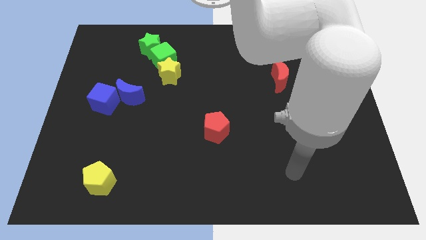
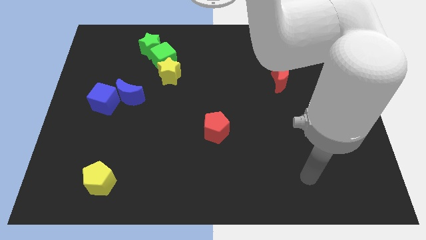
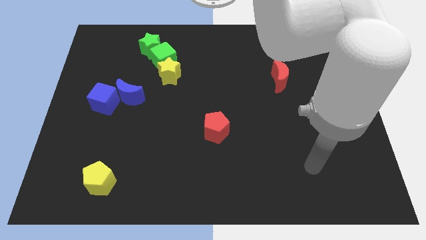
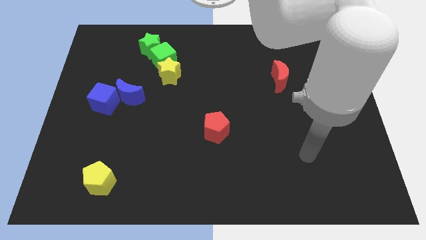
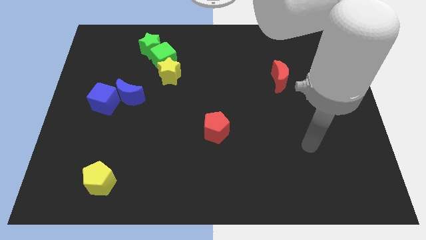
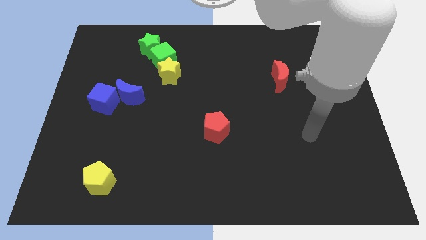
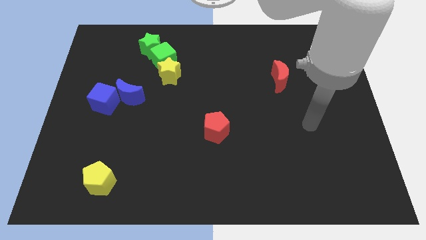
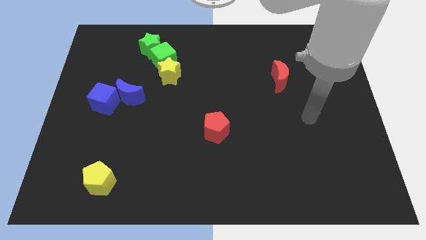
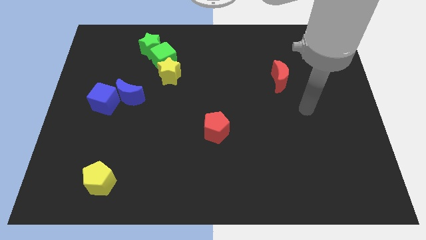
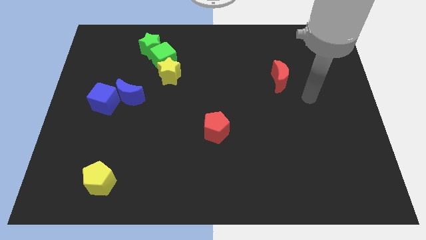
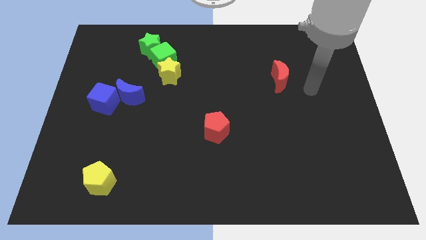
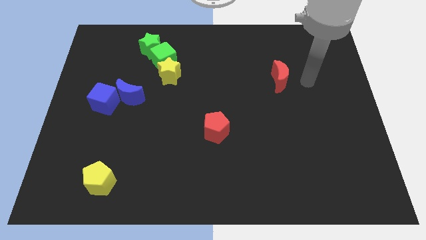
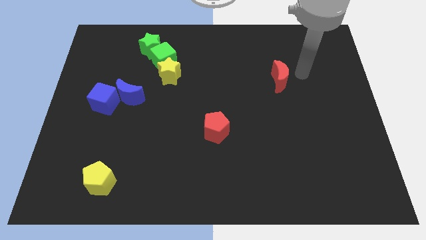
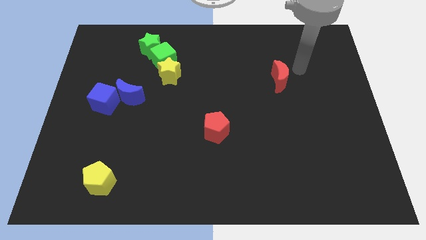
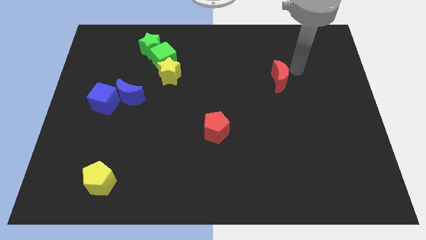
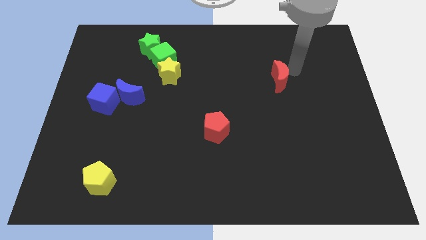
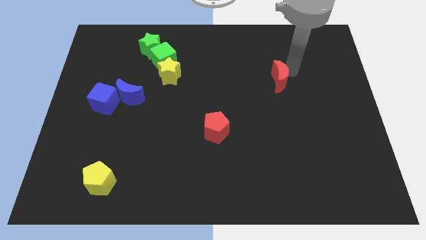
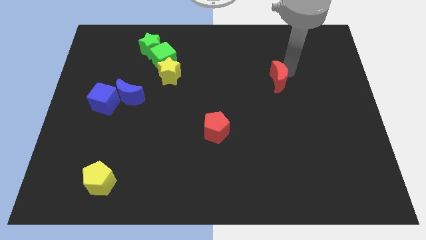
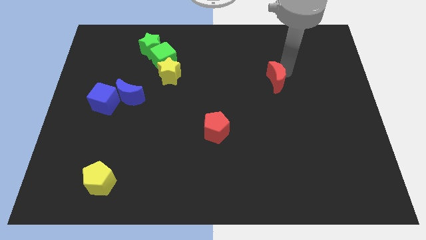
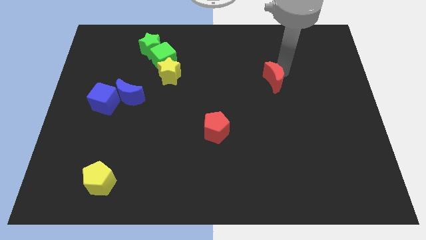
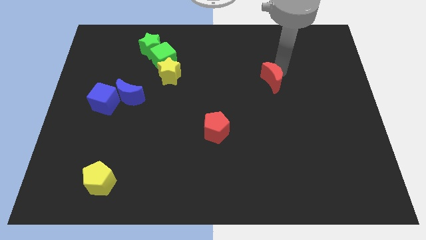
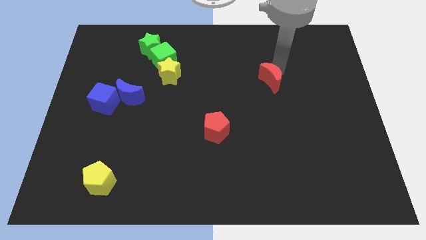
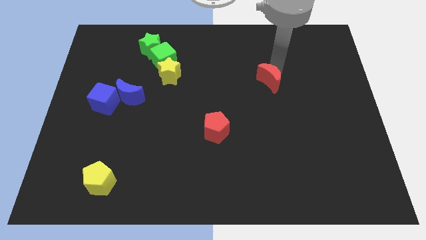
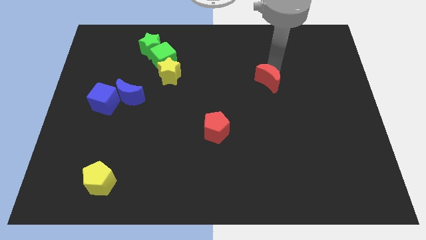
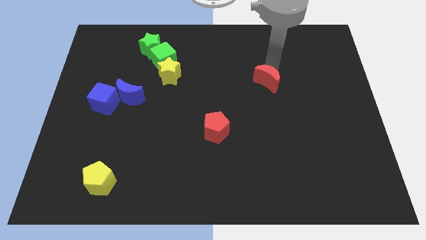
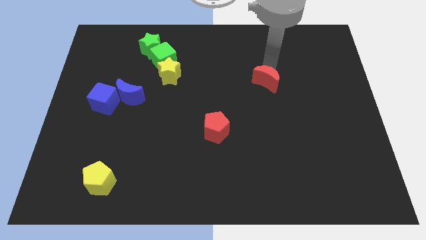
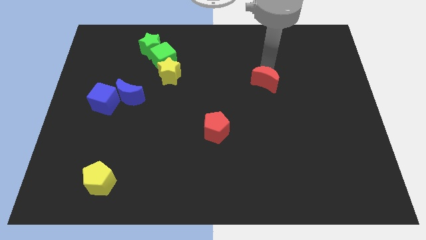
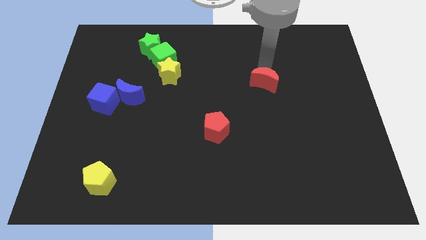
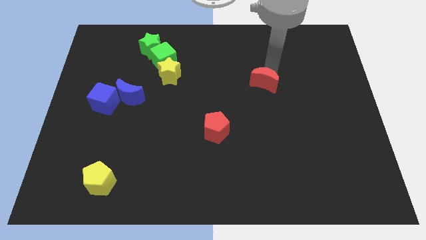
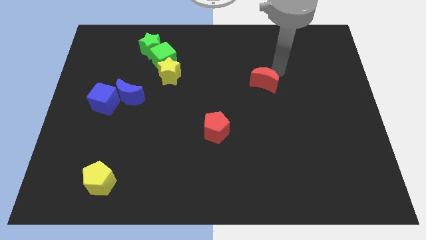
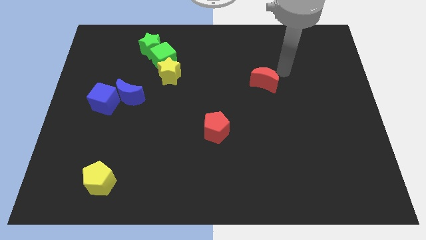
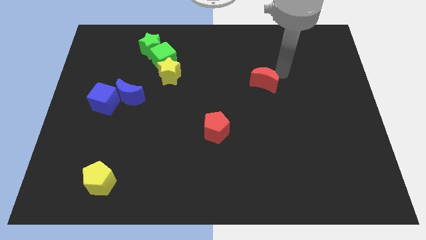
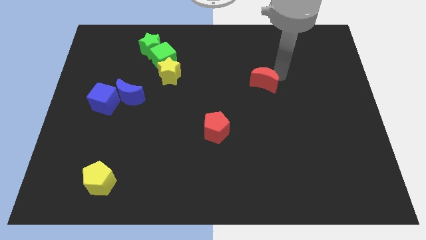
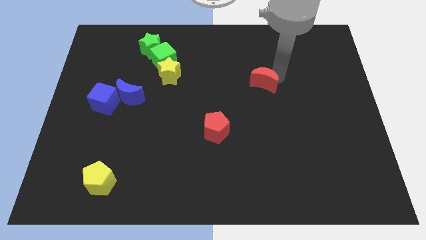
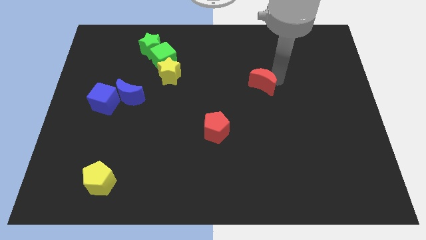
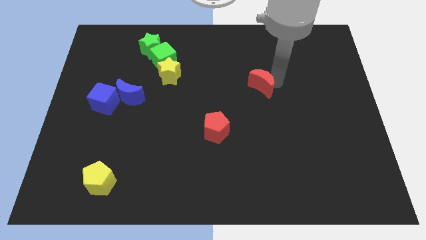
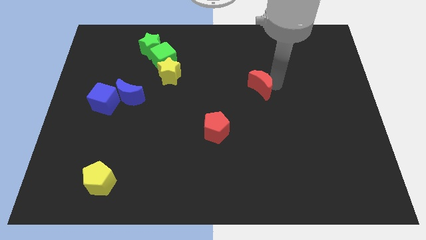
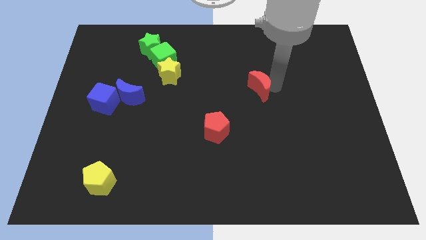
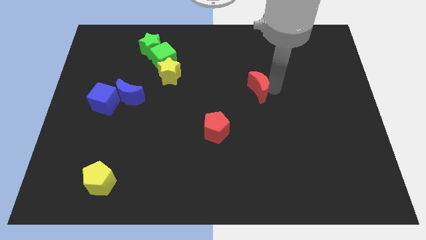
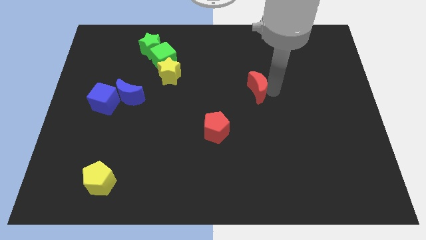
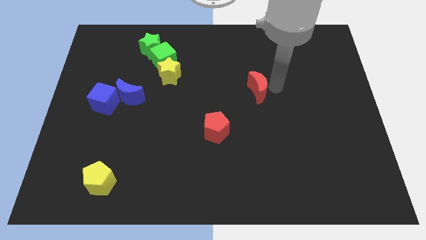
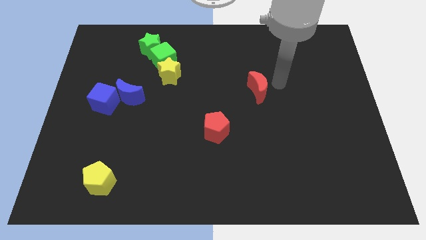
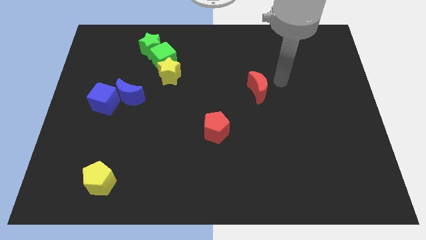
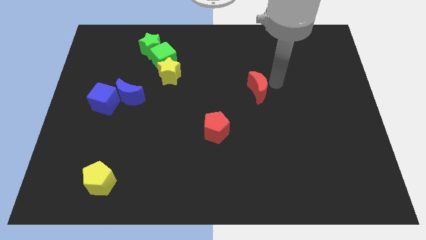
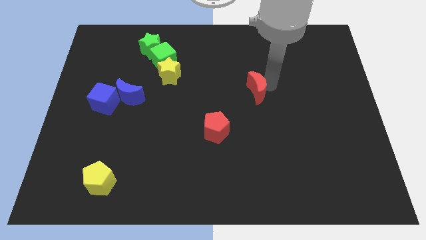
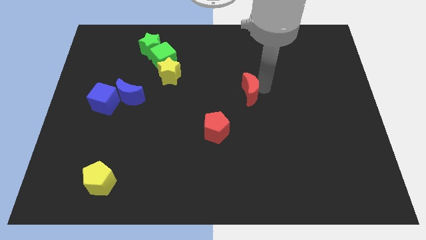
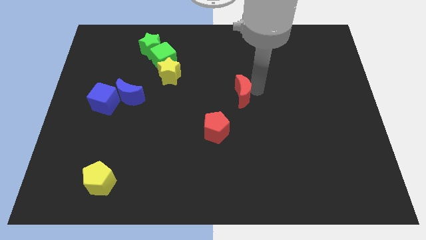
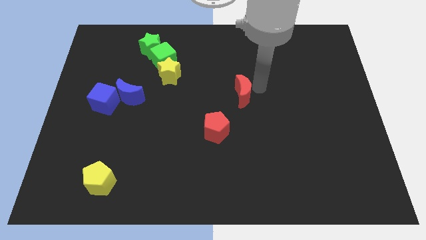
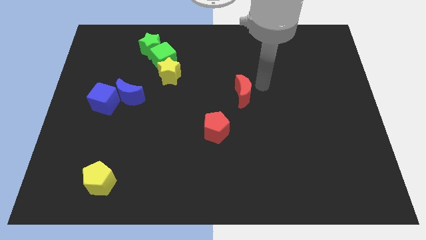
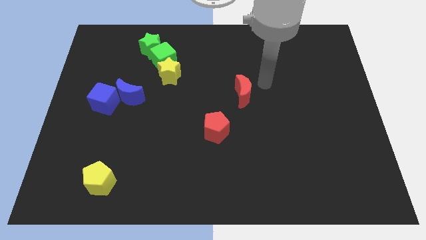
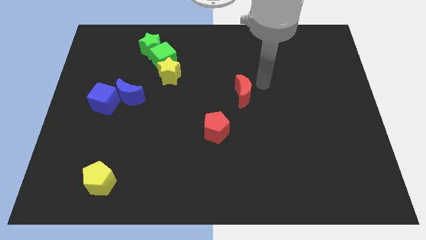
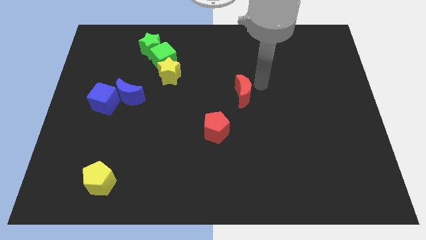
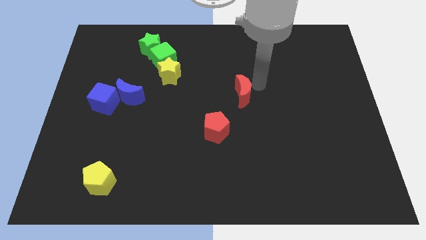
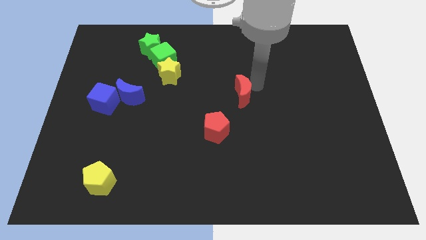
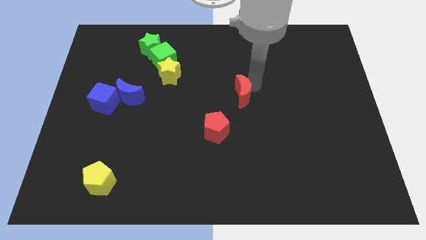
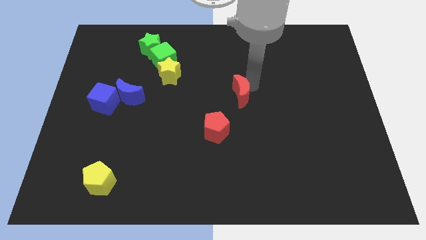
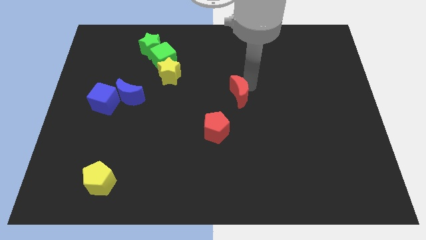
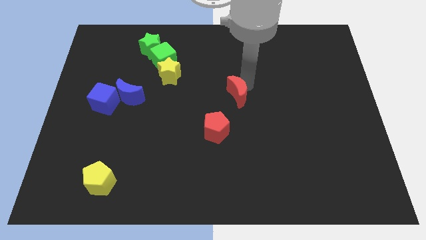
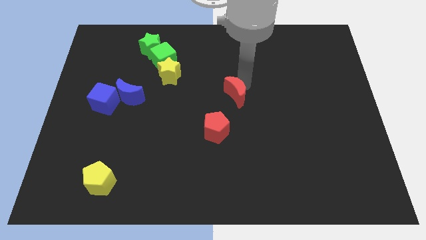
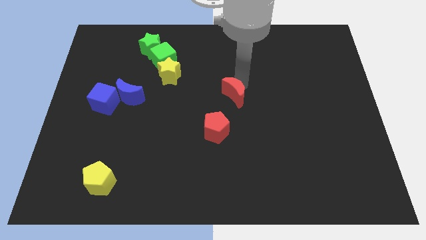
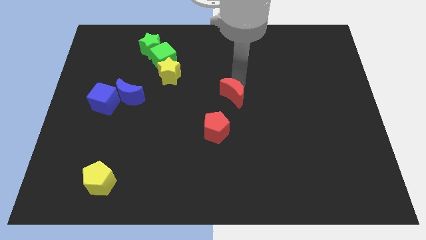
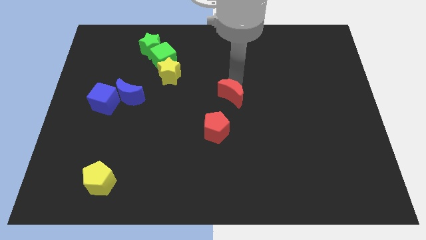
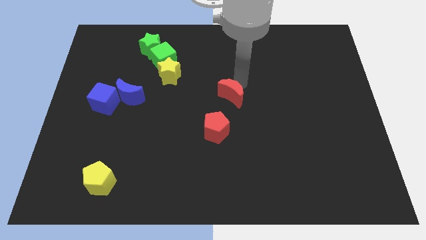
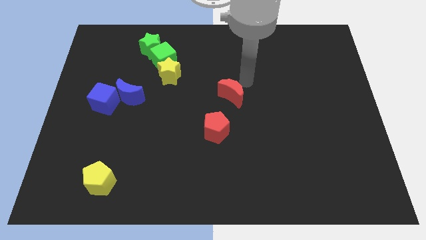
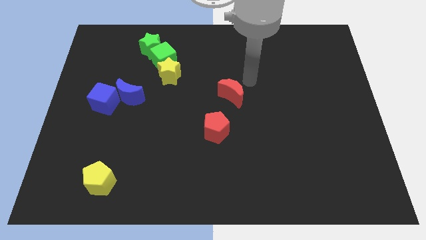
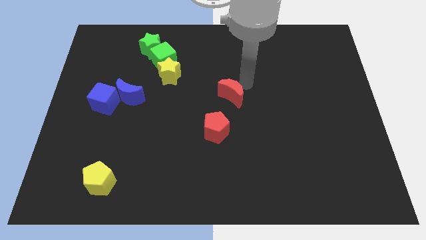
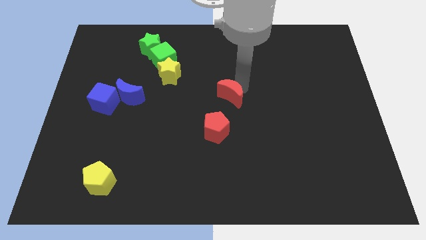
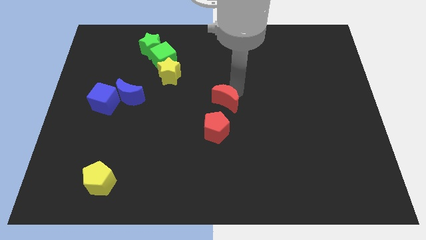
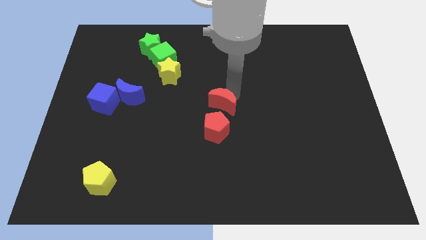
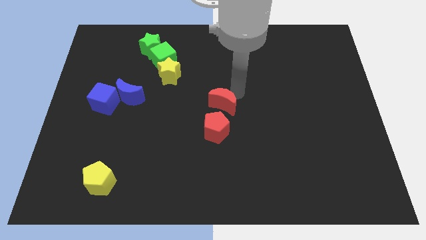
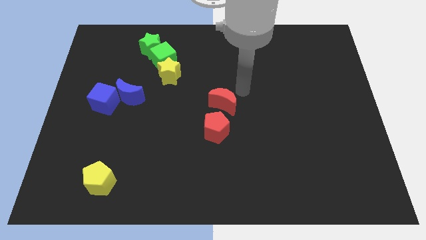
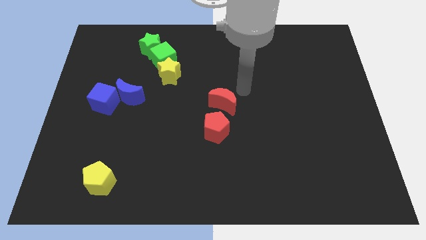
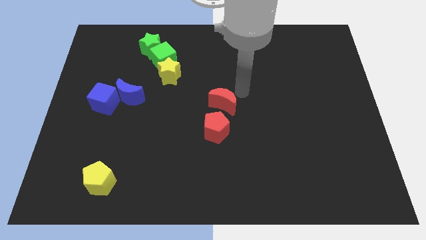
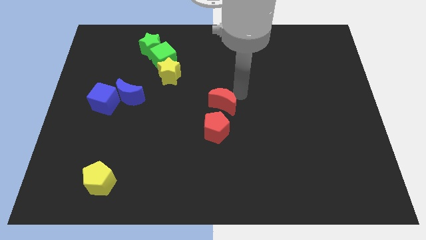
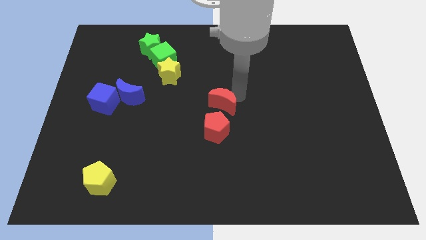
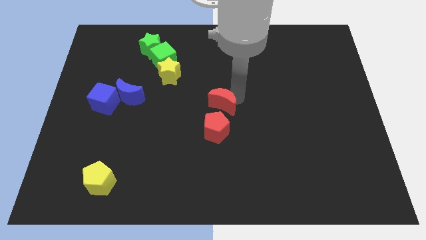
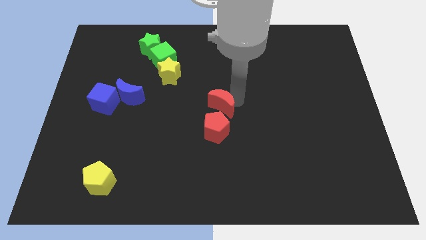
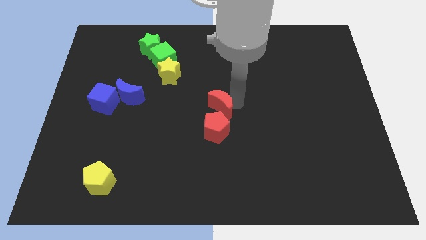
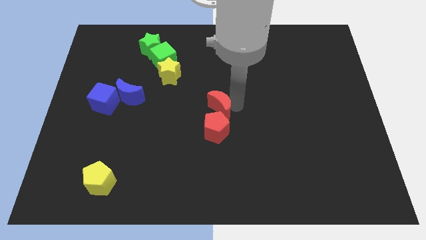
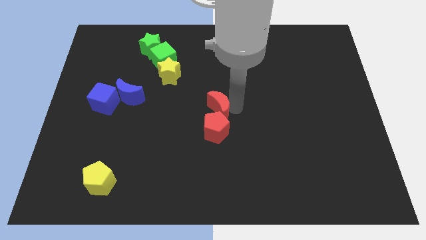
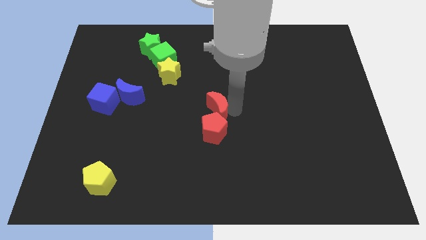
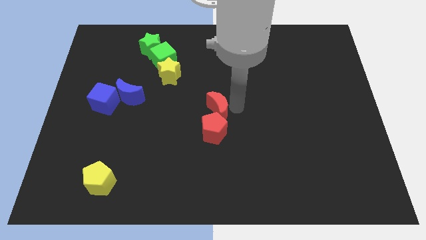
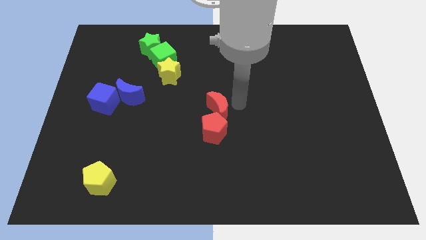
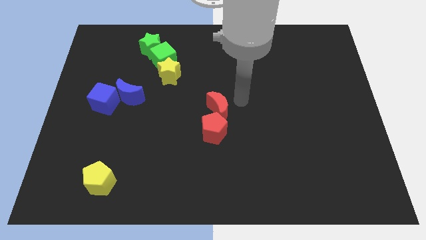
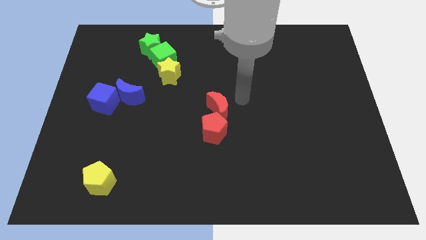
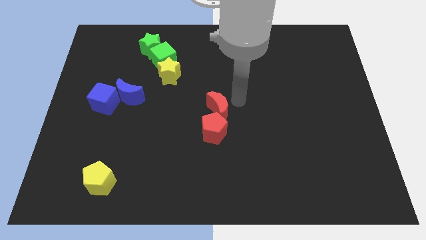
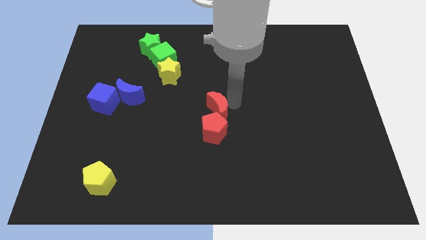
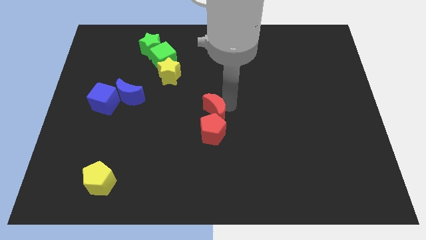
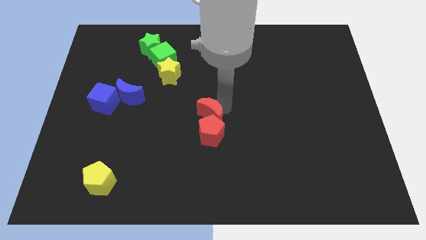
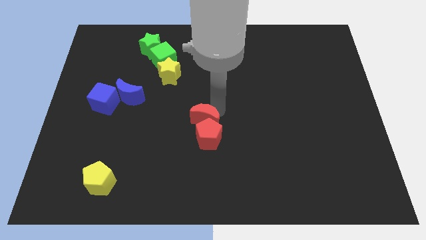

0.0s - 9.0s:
move the red moon down and then left
